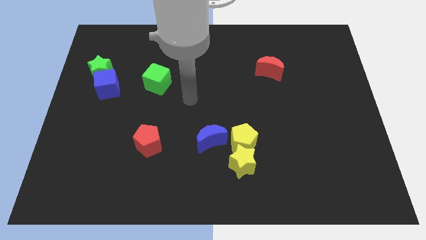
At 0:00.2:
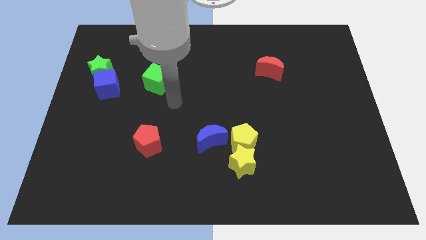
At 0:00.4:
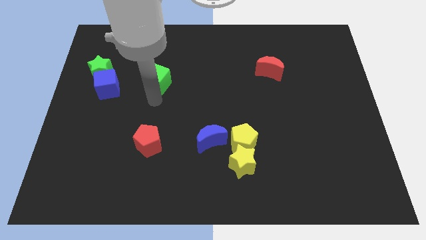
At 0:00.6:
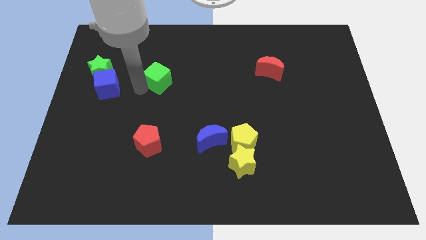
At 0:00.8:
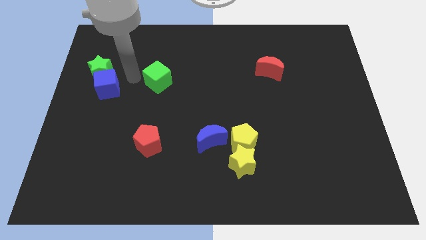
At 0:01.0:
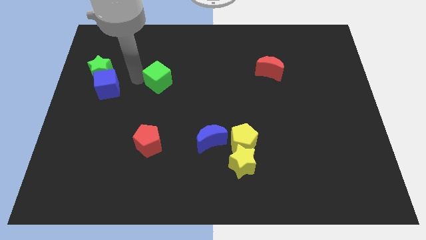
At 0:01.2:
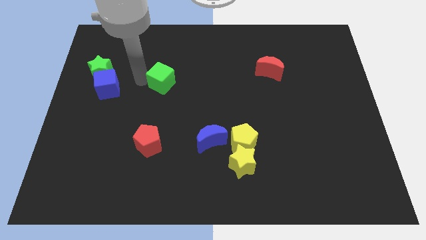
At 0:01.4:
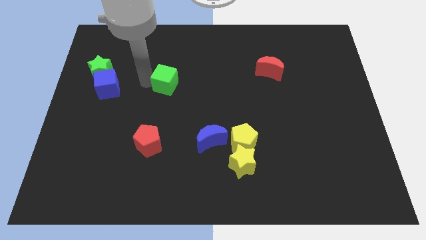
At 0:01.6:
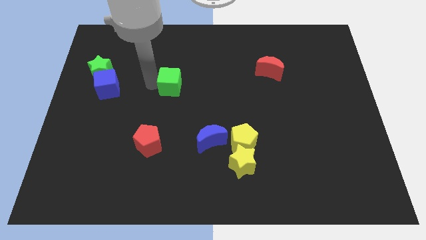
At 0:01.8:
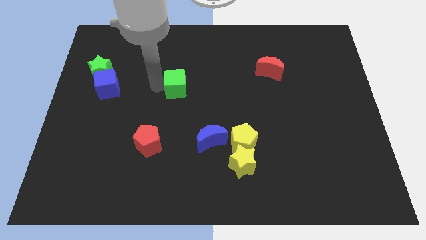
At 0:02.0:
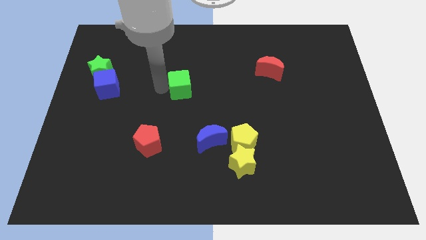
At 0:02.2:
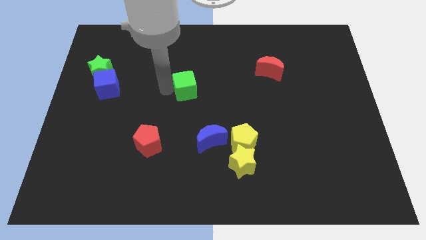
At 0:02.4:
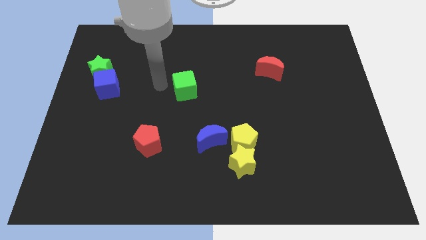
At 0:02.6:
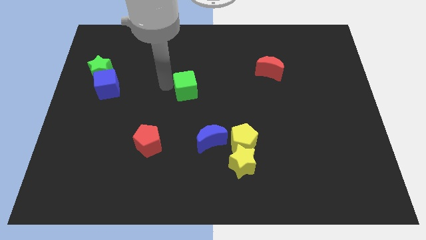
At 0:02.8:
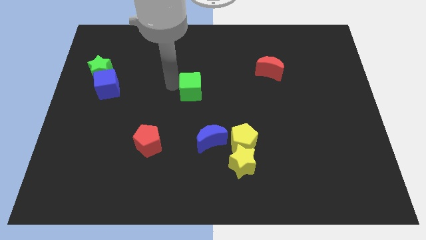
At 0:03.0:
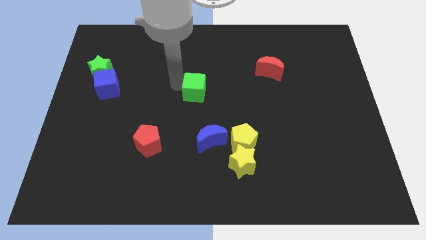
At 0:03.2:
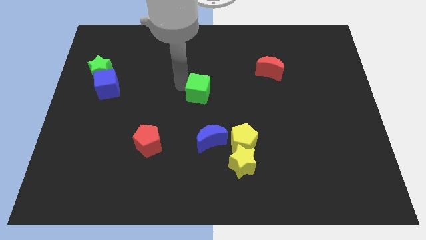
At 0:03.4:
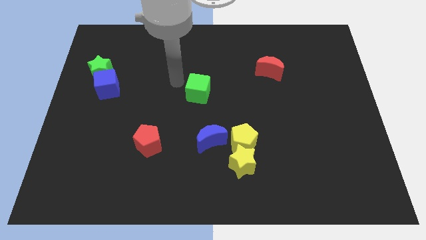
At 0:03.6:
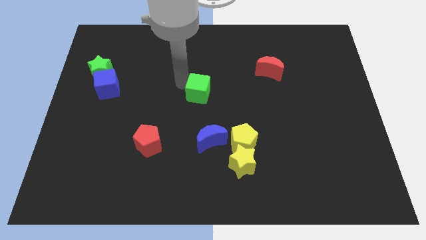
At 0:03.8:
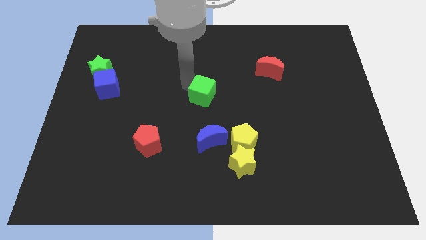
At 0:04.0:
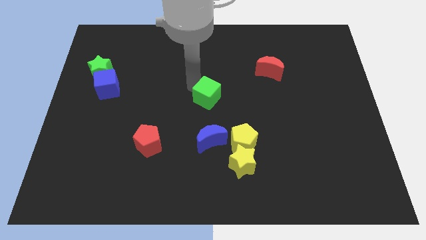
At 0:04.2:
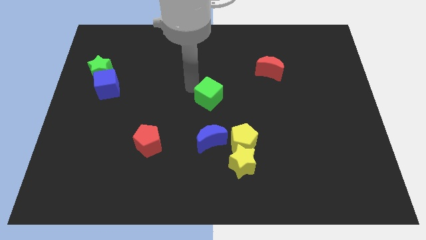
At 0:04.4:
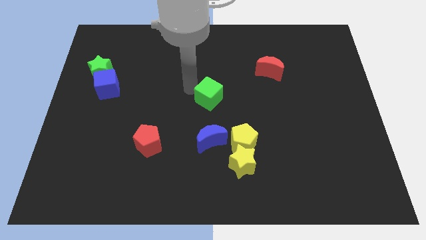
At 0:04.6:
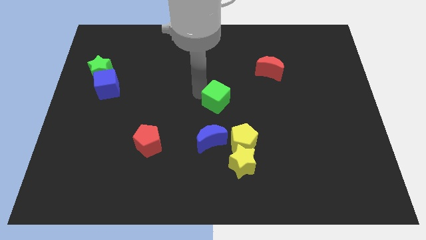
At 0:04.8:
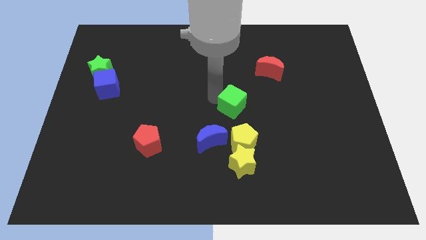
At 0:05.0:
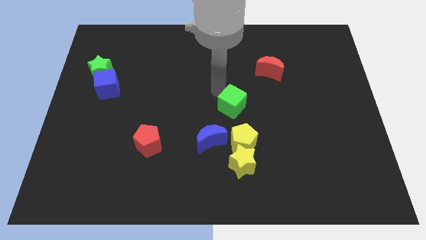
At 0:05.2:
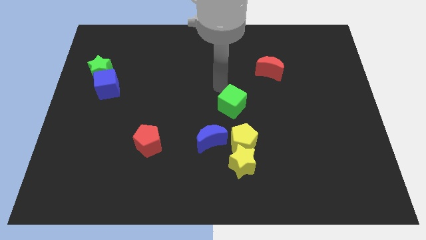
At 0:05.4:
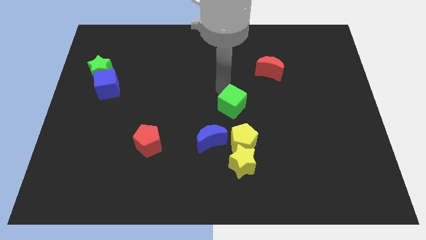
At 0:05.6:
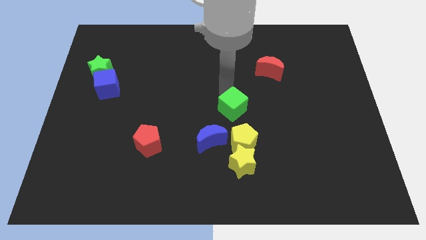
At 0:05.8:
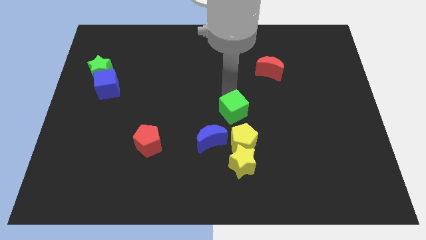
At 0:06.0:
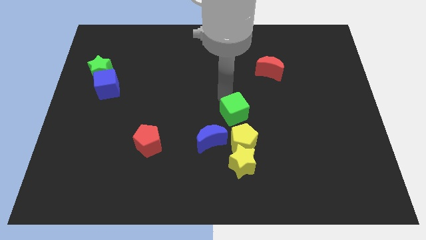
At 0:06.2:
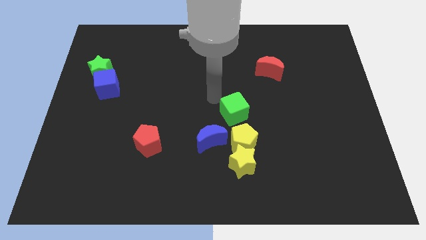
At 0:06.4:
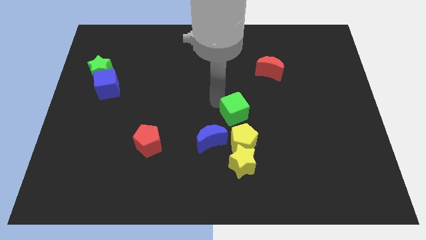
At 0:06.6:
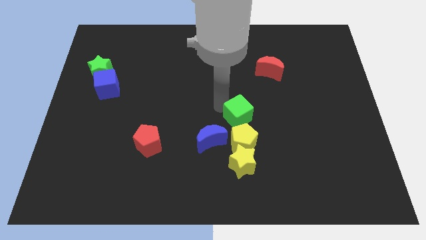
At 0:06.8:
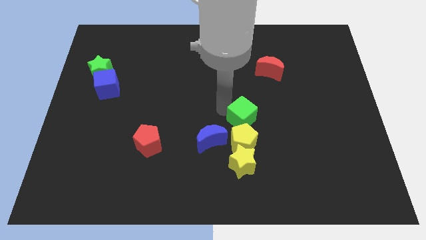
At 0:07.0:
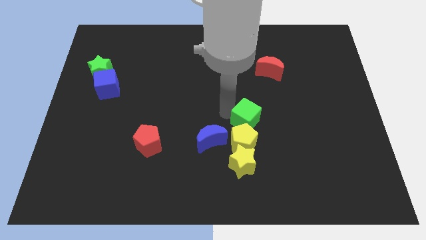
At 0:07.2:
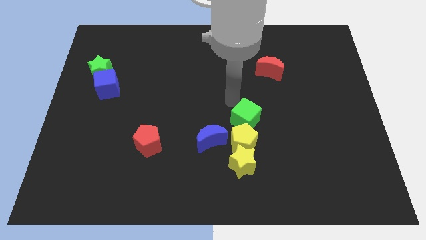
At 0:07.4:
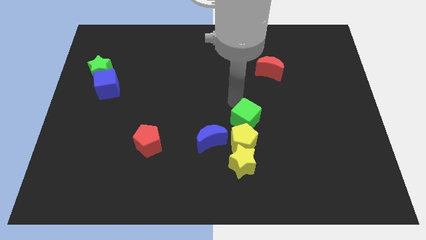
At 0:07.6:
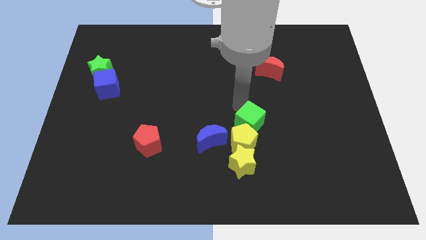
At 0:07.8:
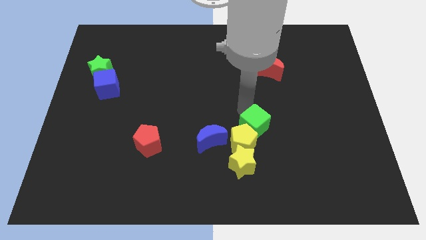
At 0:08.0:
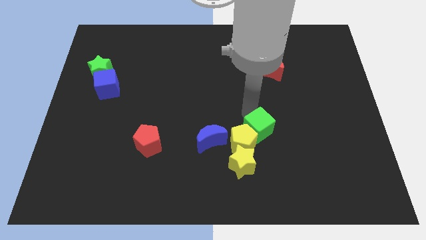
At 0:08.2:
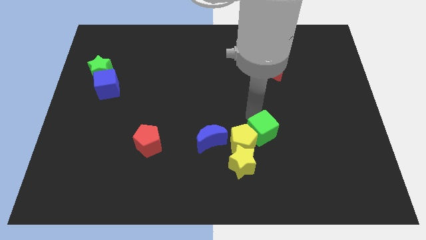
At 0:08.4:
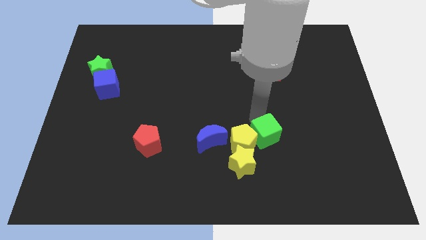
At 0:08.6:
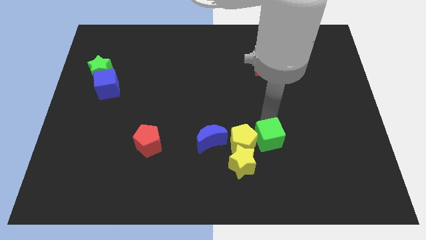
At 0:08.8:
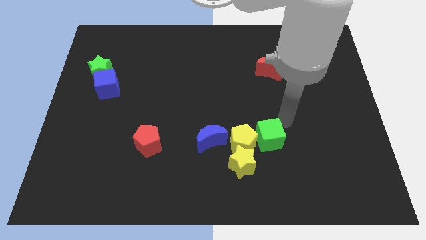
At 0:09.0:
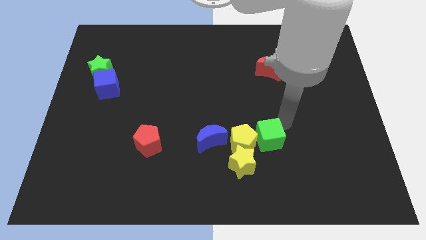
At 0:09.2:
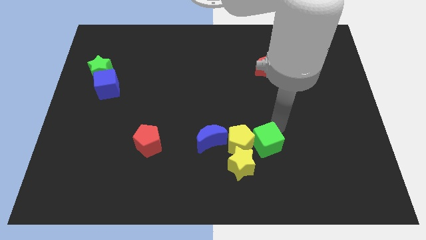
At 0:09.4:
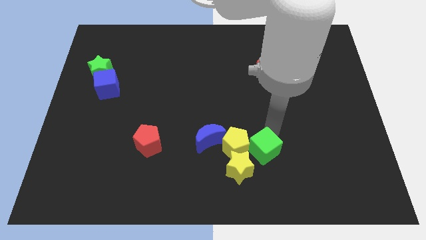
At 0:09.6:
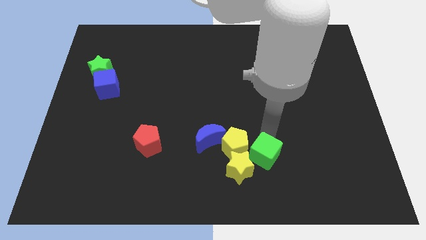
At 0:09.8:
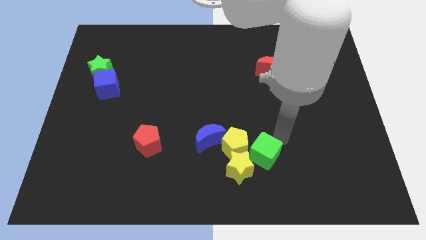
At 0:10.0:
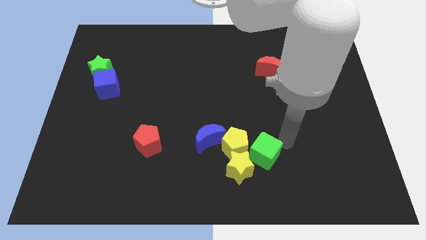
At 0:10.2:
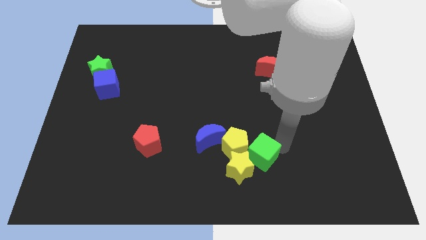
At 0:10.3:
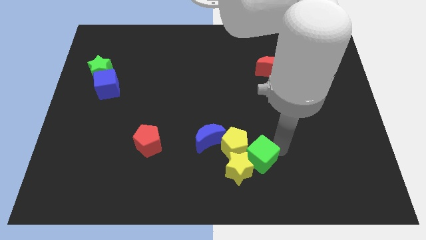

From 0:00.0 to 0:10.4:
put the green cube next to the yellow star

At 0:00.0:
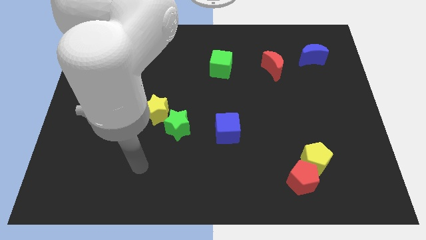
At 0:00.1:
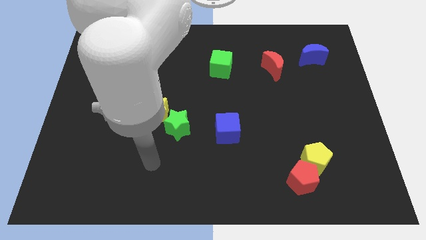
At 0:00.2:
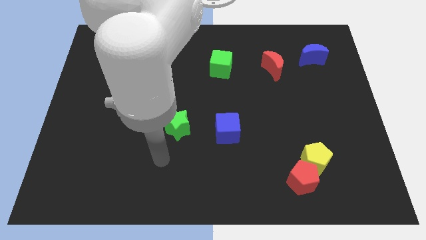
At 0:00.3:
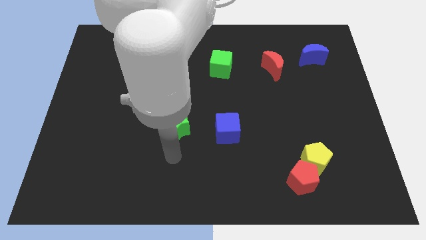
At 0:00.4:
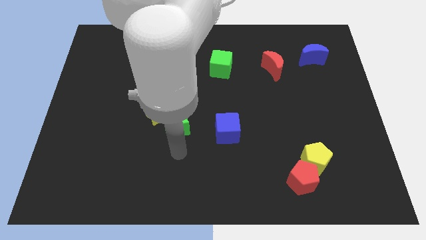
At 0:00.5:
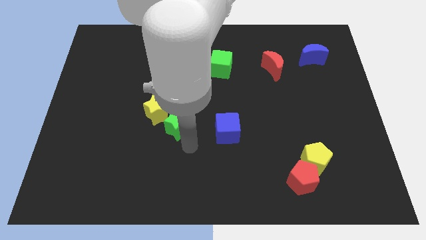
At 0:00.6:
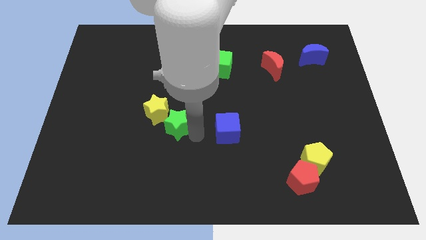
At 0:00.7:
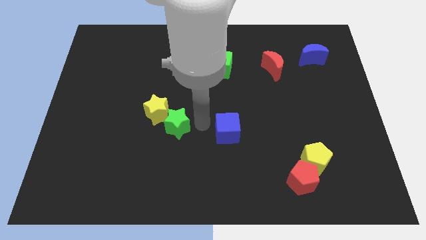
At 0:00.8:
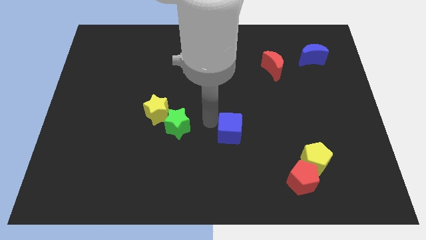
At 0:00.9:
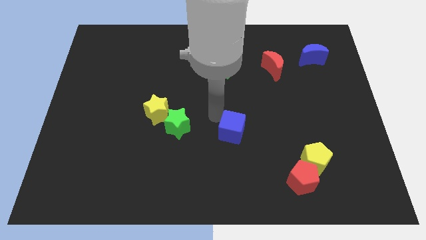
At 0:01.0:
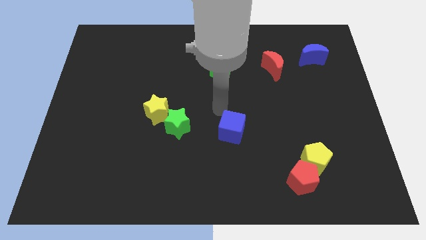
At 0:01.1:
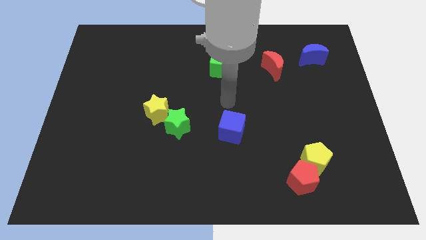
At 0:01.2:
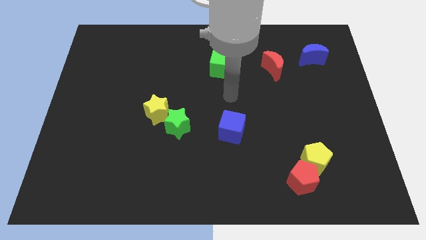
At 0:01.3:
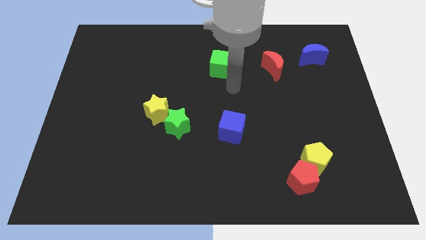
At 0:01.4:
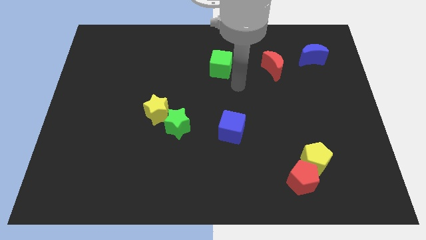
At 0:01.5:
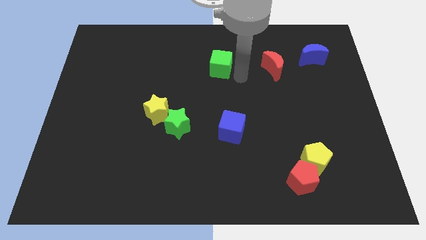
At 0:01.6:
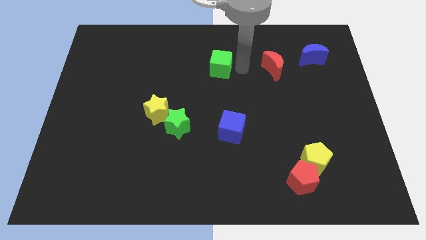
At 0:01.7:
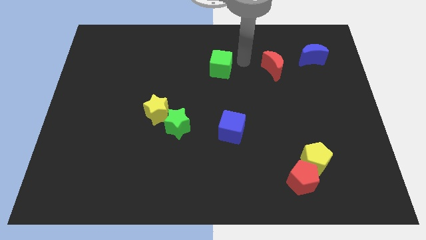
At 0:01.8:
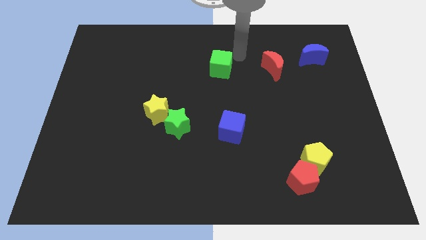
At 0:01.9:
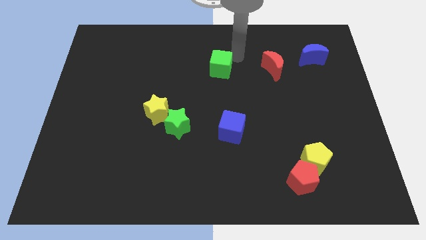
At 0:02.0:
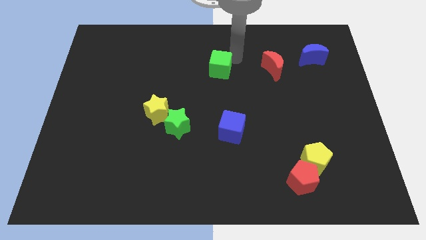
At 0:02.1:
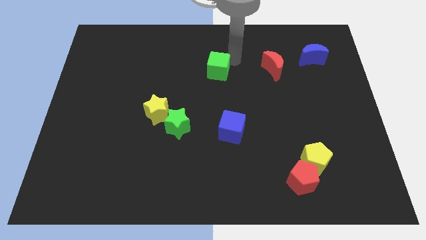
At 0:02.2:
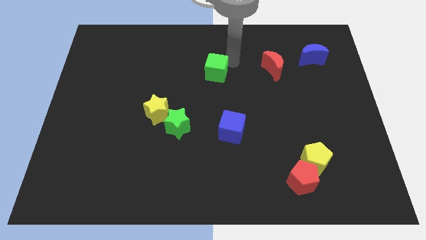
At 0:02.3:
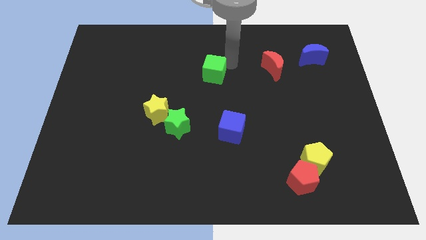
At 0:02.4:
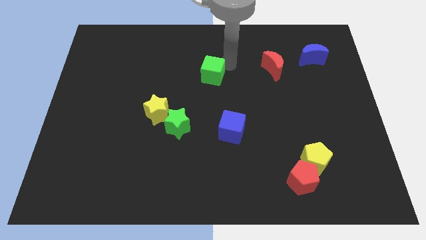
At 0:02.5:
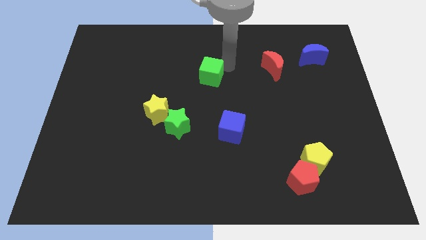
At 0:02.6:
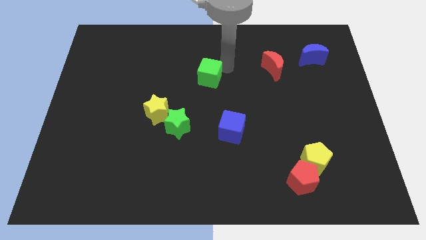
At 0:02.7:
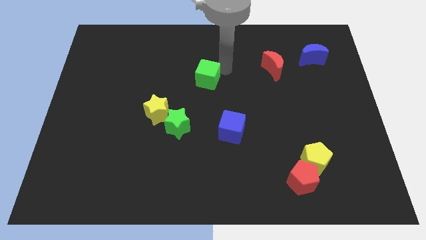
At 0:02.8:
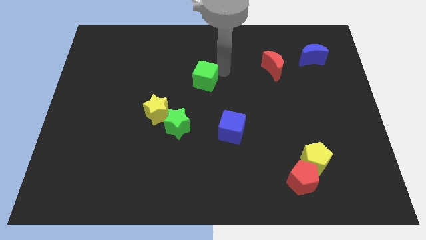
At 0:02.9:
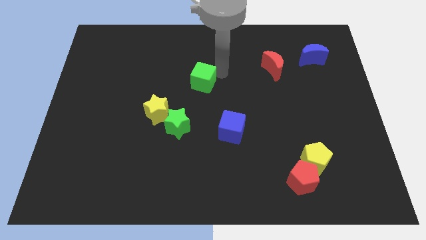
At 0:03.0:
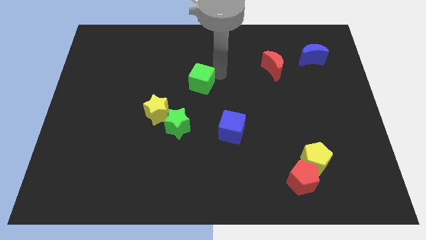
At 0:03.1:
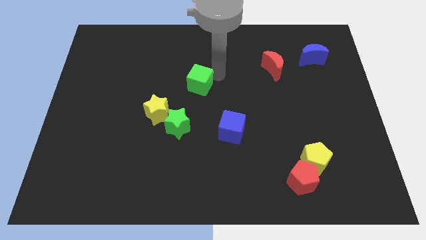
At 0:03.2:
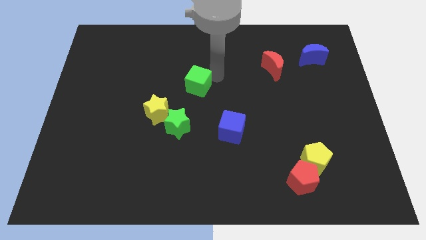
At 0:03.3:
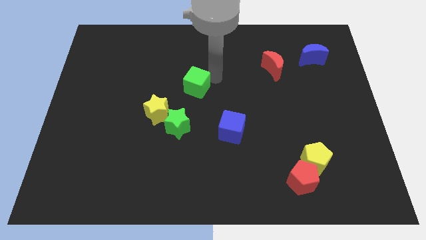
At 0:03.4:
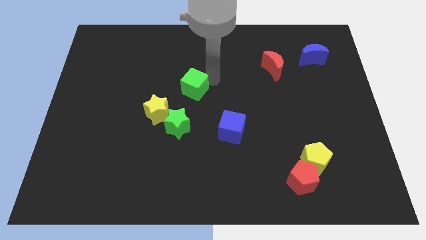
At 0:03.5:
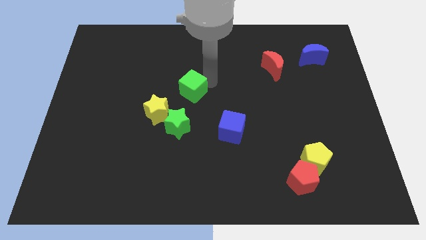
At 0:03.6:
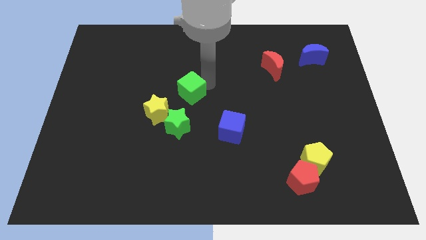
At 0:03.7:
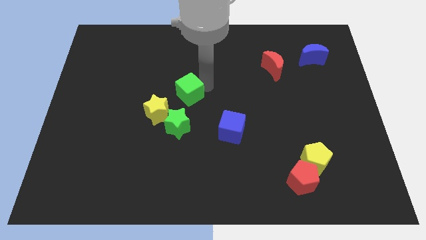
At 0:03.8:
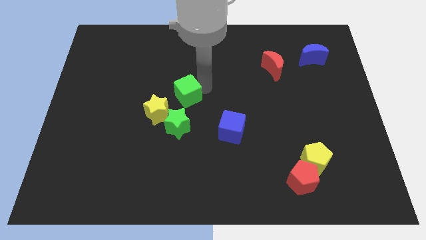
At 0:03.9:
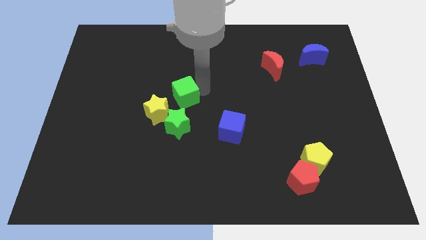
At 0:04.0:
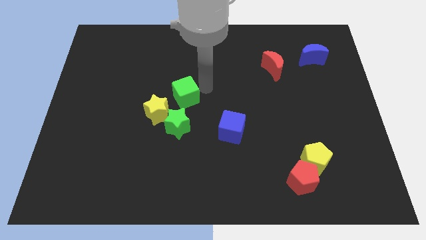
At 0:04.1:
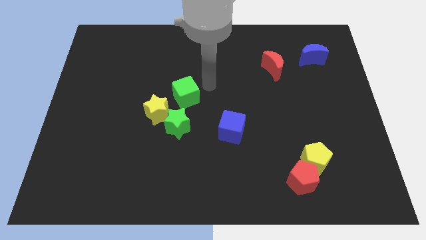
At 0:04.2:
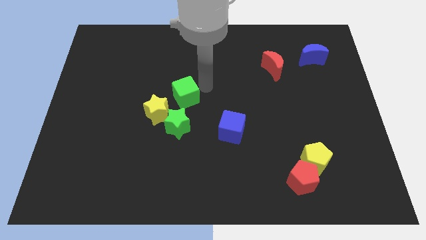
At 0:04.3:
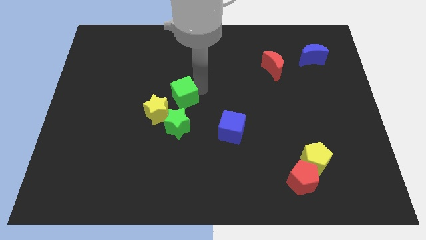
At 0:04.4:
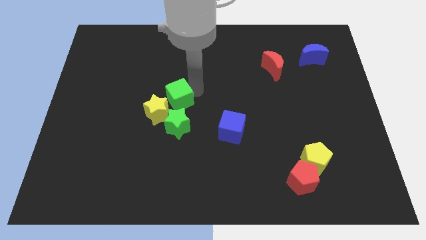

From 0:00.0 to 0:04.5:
push the green cube next to the yellow star
